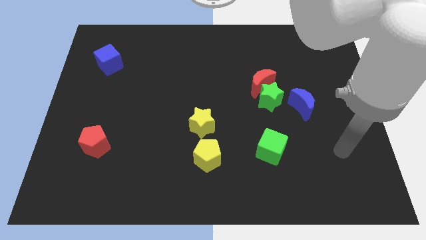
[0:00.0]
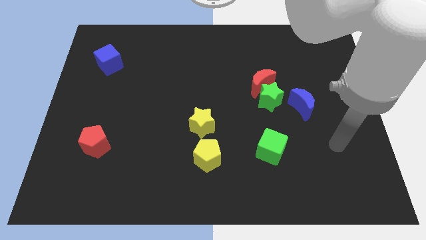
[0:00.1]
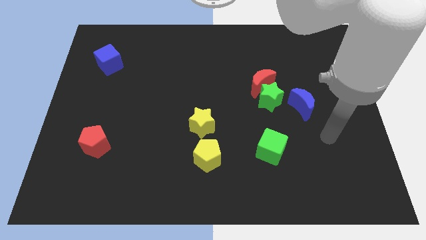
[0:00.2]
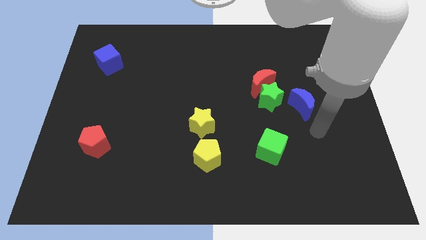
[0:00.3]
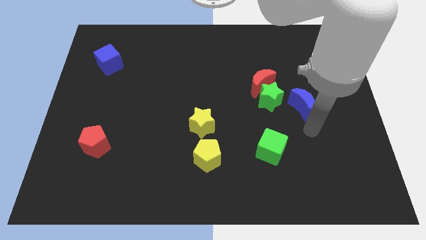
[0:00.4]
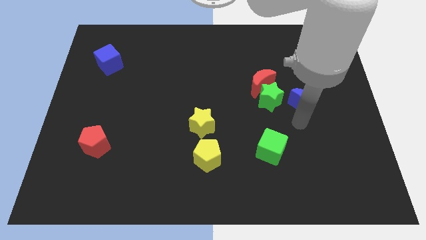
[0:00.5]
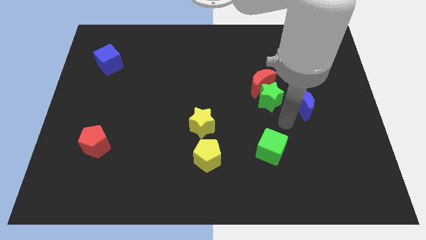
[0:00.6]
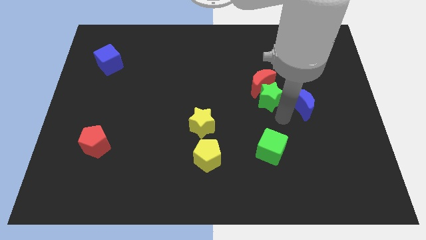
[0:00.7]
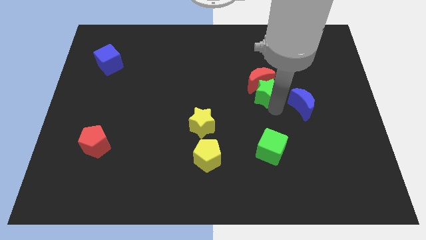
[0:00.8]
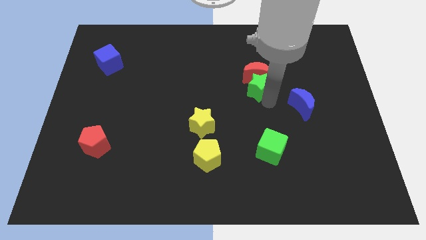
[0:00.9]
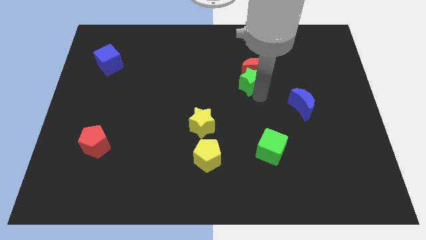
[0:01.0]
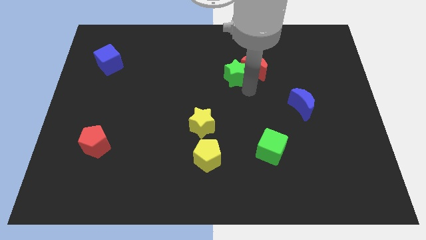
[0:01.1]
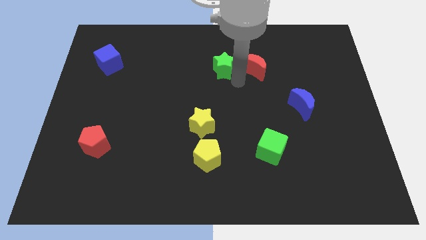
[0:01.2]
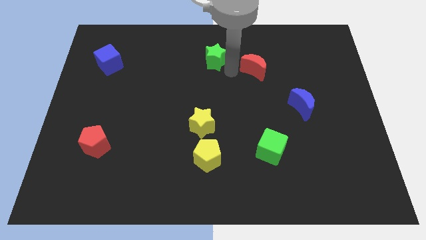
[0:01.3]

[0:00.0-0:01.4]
pull the red moon apart from the green star

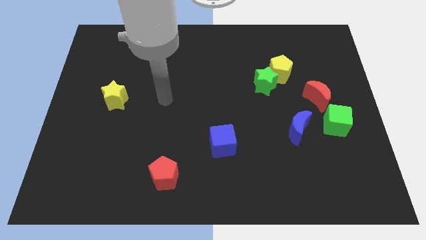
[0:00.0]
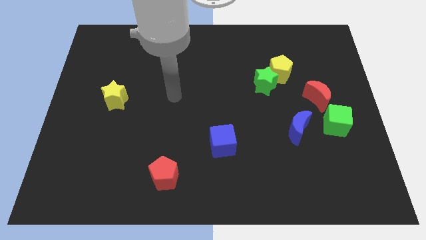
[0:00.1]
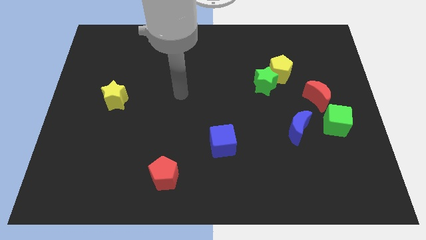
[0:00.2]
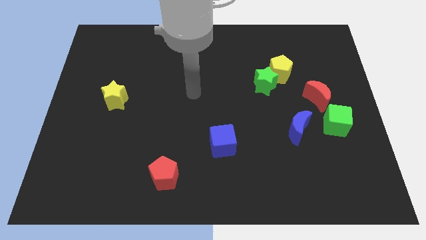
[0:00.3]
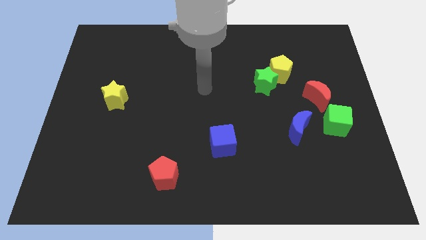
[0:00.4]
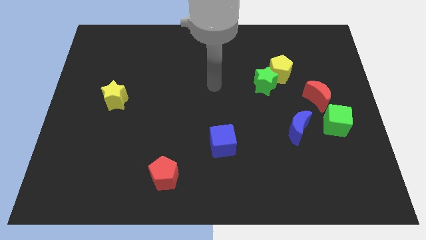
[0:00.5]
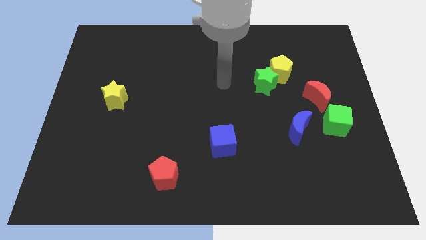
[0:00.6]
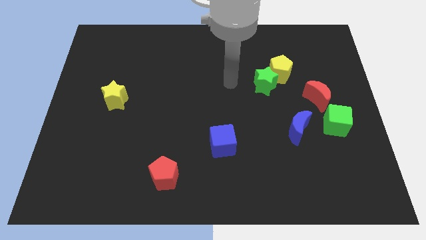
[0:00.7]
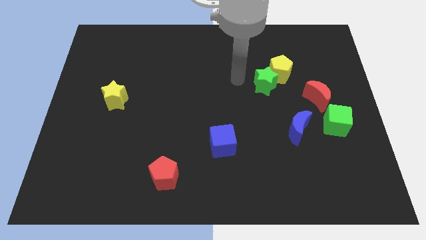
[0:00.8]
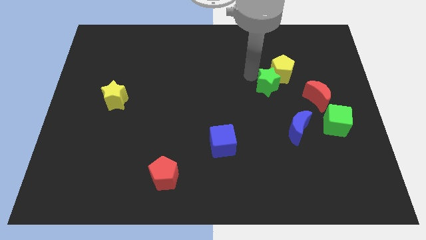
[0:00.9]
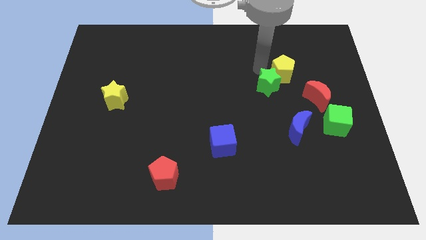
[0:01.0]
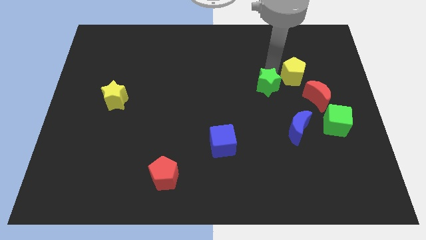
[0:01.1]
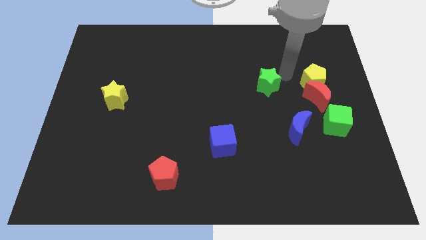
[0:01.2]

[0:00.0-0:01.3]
separate the green star from the yellow pentagon

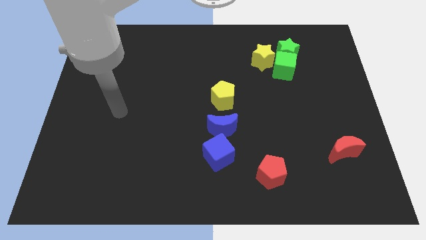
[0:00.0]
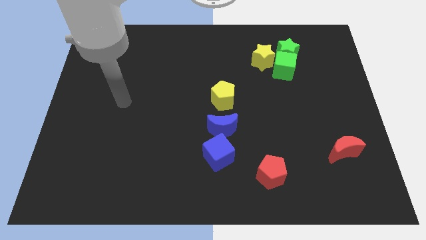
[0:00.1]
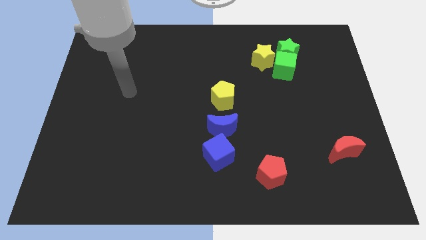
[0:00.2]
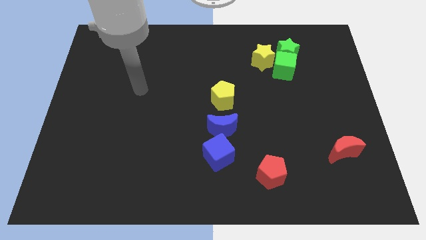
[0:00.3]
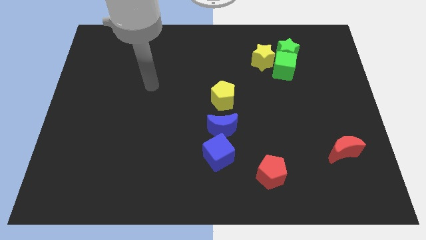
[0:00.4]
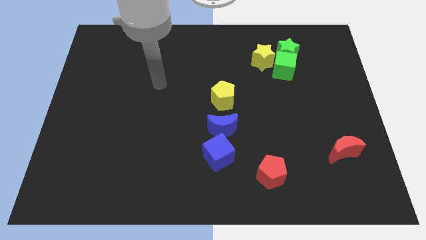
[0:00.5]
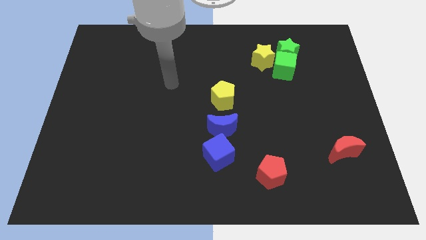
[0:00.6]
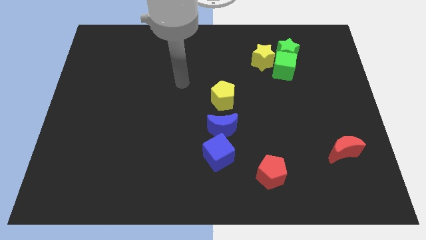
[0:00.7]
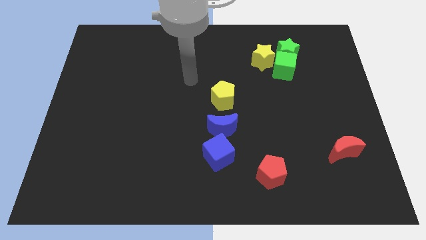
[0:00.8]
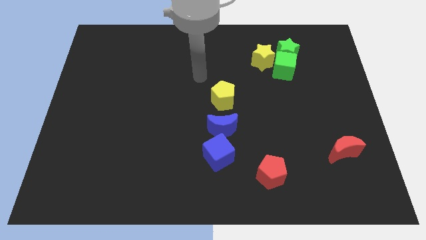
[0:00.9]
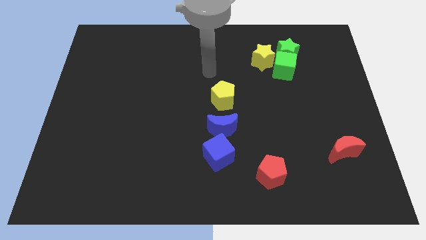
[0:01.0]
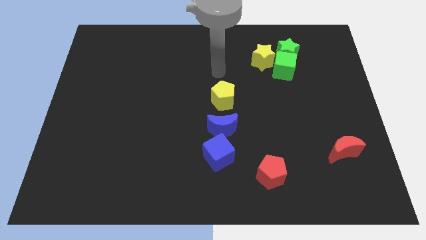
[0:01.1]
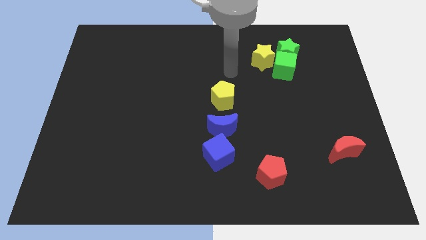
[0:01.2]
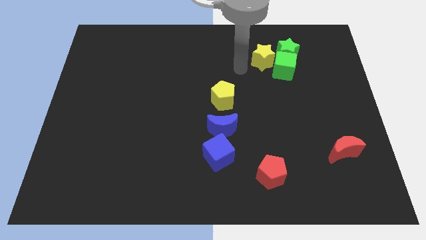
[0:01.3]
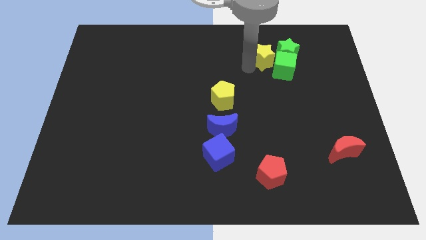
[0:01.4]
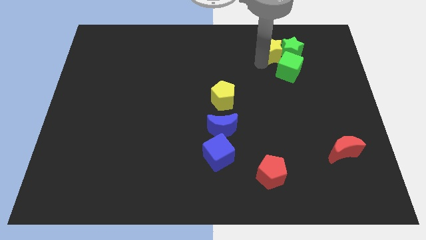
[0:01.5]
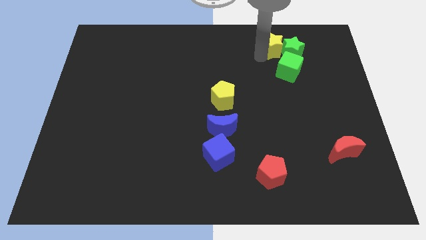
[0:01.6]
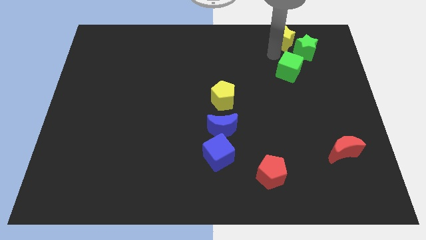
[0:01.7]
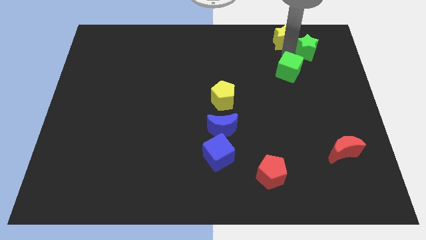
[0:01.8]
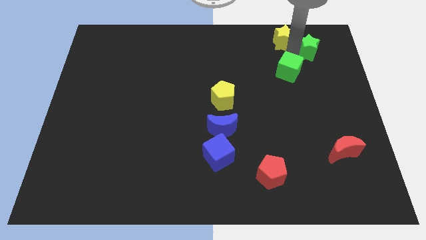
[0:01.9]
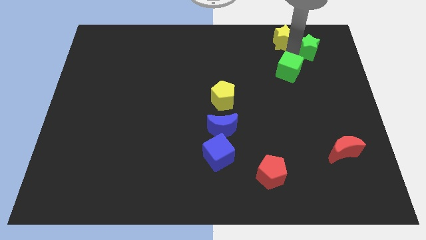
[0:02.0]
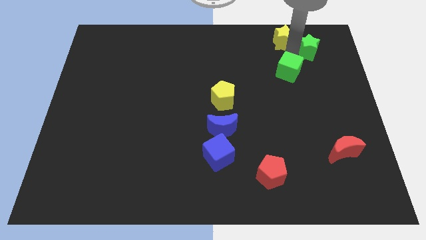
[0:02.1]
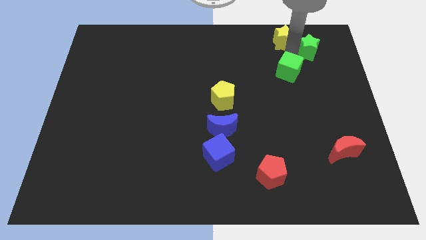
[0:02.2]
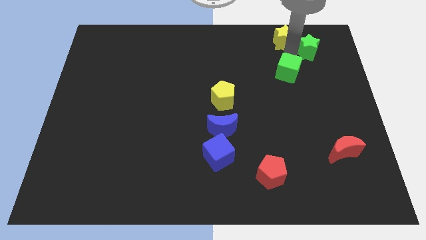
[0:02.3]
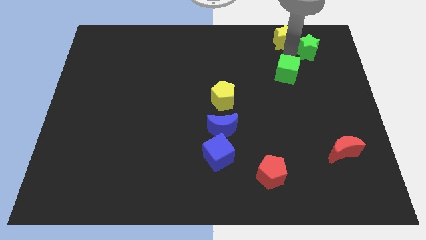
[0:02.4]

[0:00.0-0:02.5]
move the green cube away from the green star and yellow star

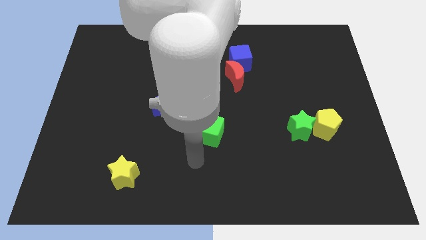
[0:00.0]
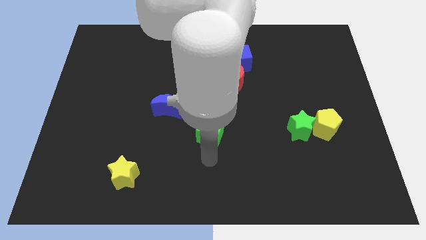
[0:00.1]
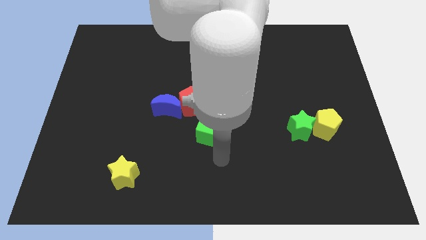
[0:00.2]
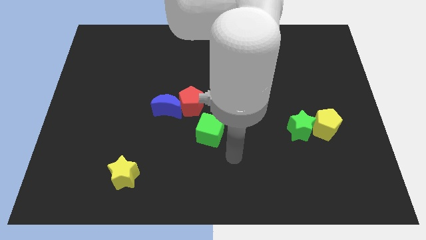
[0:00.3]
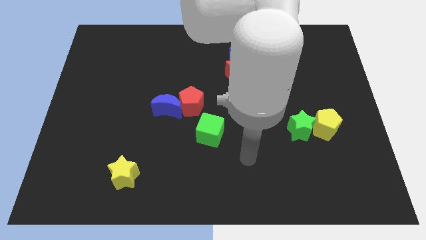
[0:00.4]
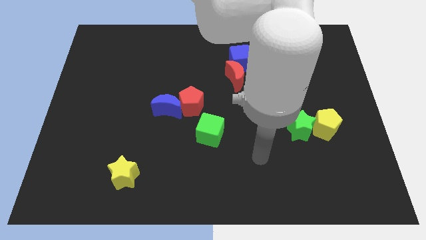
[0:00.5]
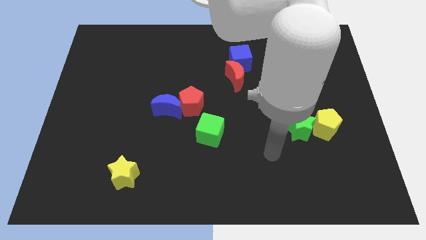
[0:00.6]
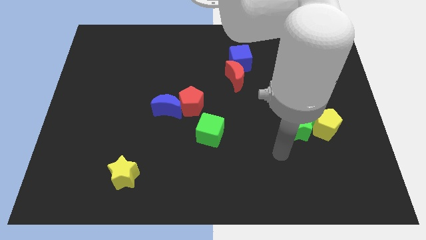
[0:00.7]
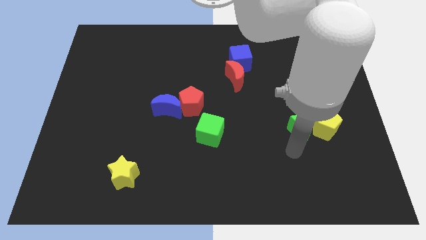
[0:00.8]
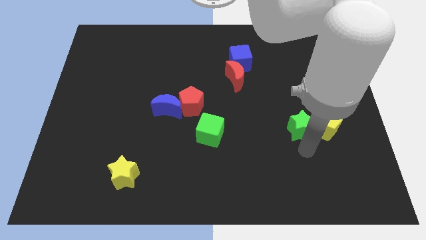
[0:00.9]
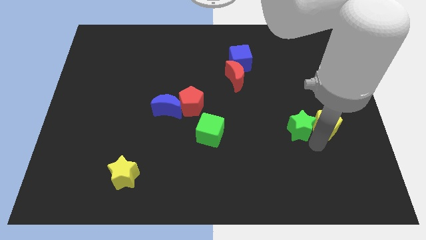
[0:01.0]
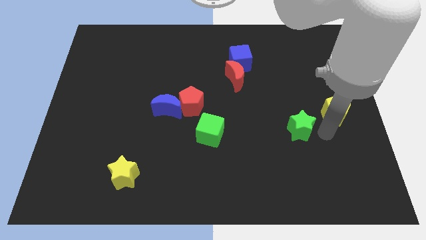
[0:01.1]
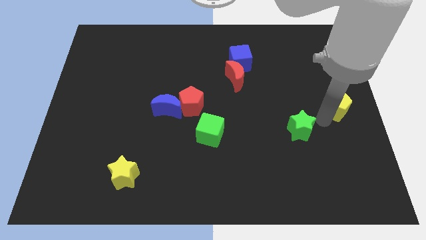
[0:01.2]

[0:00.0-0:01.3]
pull the green star apart from the yellow pentagon

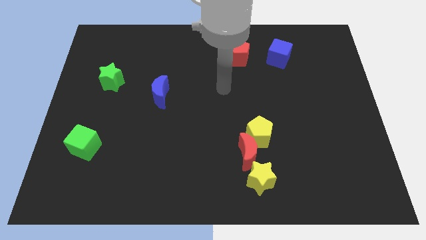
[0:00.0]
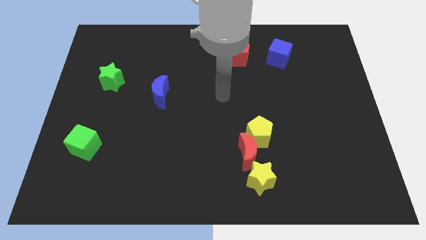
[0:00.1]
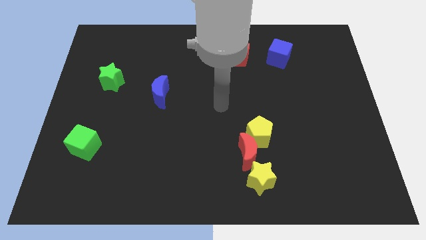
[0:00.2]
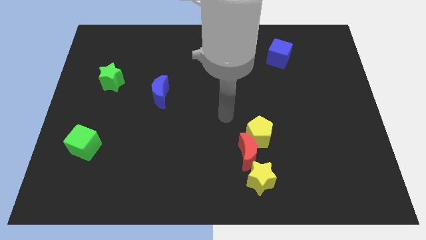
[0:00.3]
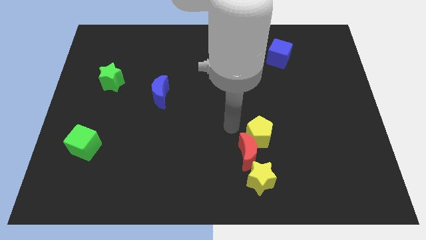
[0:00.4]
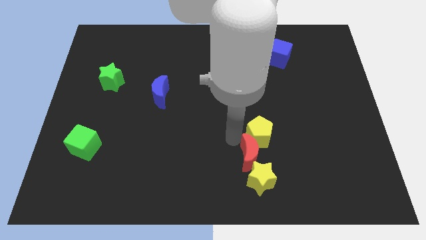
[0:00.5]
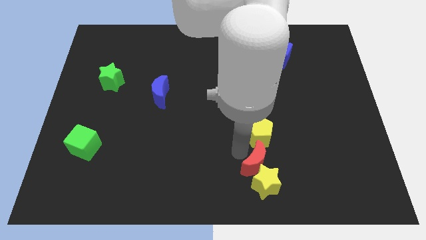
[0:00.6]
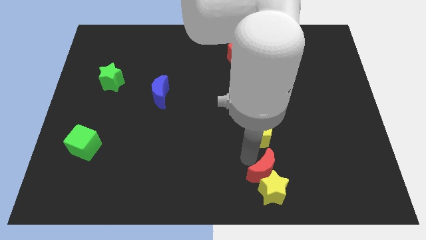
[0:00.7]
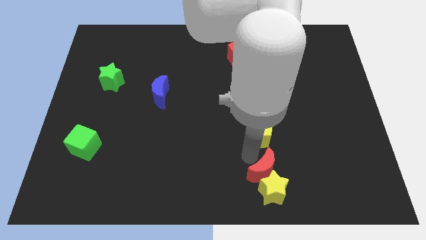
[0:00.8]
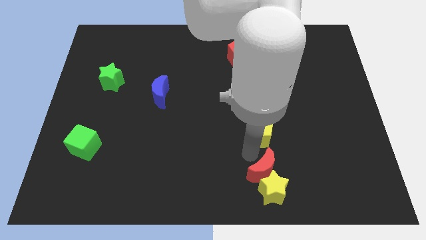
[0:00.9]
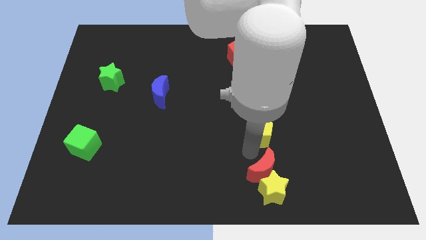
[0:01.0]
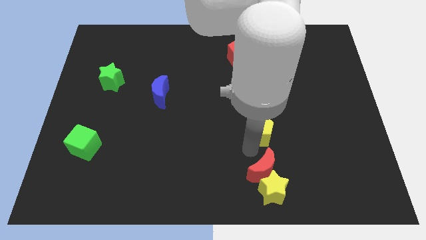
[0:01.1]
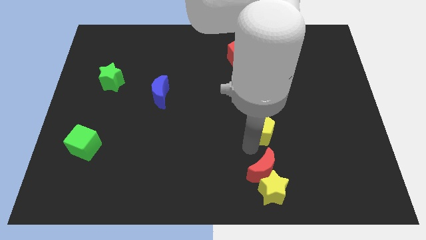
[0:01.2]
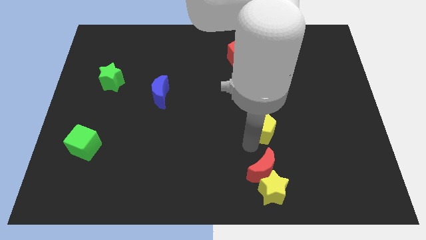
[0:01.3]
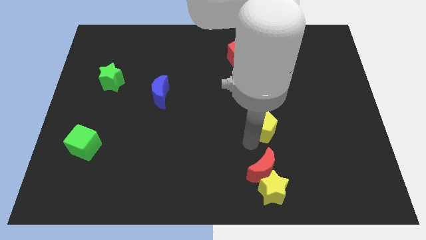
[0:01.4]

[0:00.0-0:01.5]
separate the yellow pentagon from the red moon

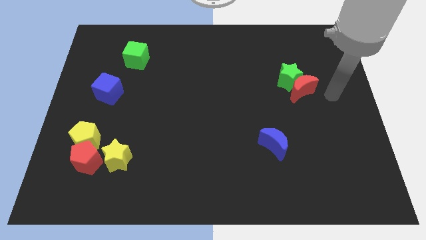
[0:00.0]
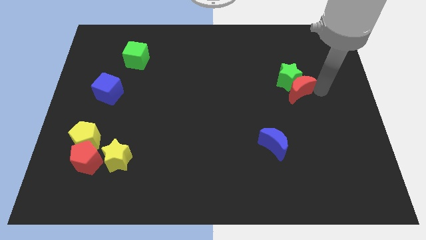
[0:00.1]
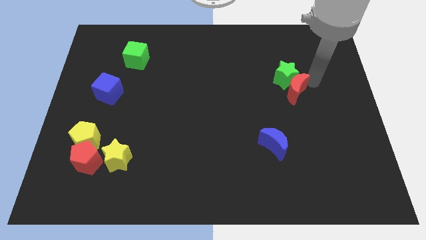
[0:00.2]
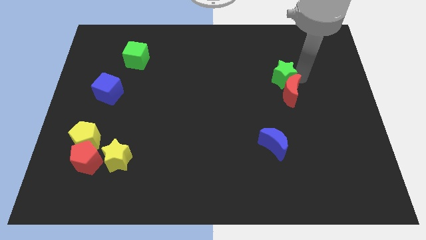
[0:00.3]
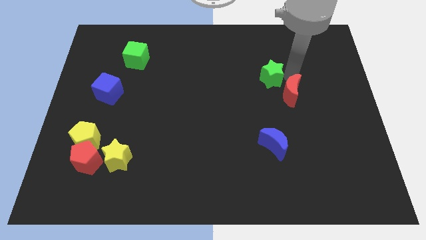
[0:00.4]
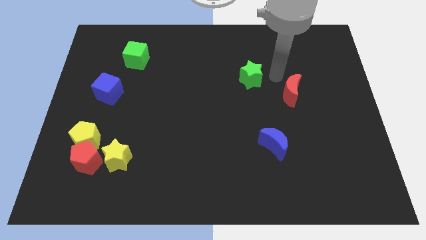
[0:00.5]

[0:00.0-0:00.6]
separate the red moon from the green star

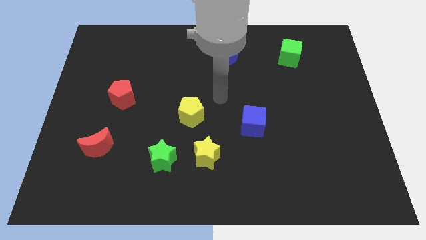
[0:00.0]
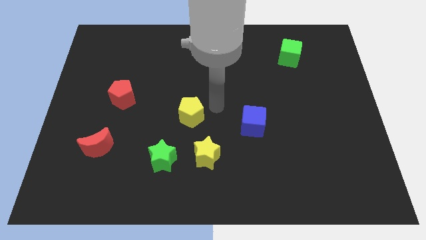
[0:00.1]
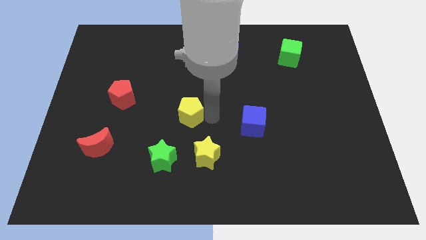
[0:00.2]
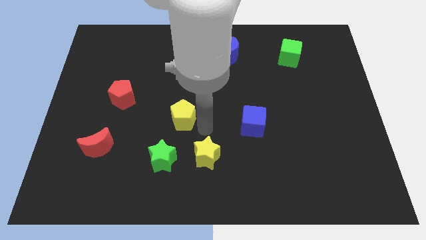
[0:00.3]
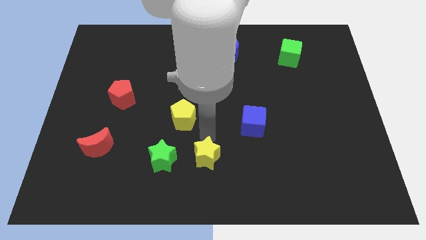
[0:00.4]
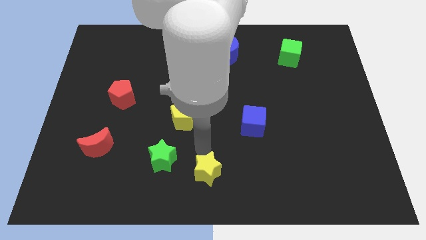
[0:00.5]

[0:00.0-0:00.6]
separate the green star from the yellow star
